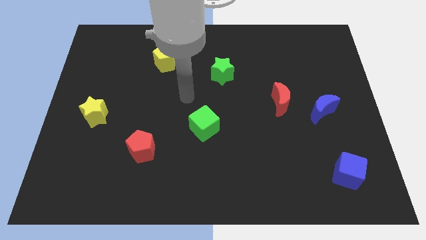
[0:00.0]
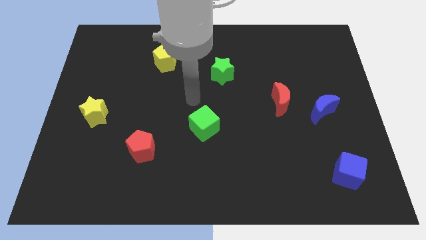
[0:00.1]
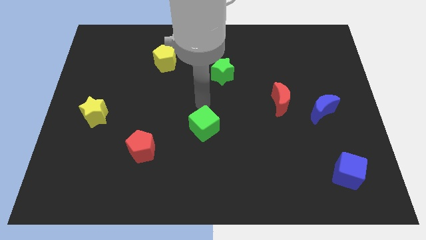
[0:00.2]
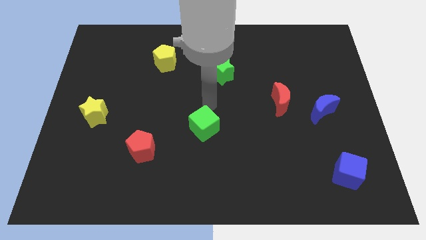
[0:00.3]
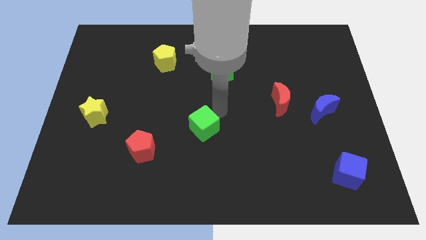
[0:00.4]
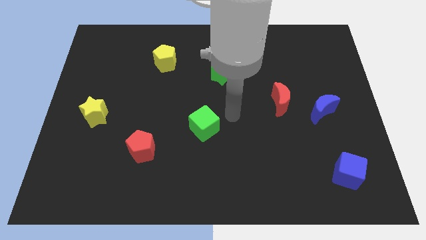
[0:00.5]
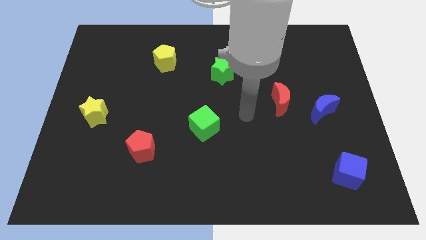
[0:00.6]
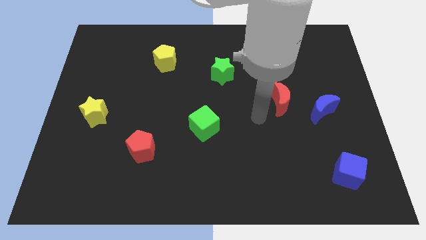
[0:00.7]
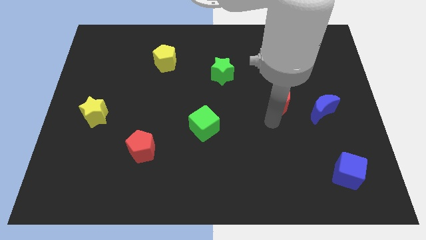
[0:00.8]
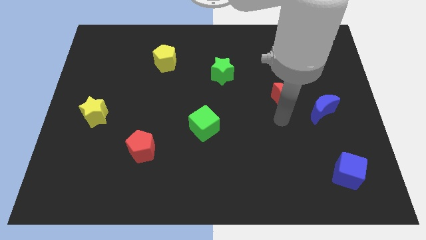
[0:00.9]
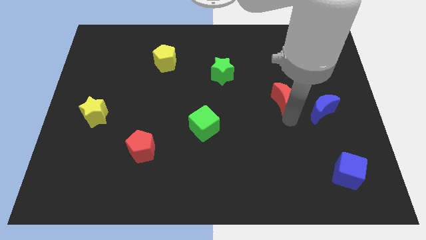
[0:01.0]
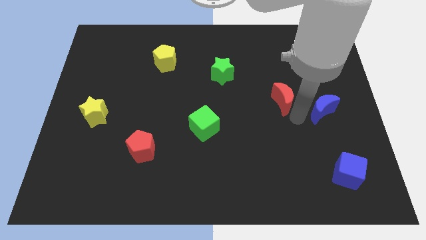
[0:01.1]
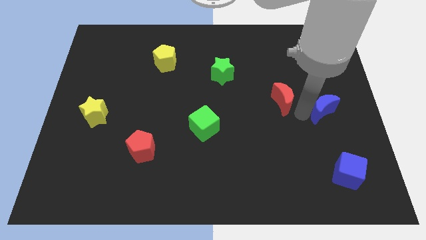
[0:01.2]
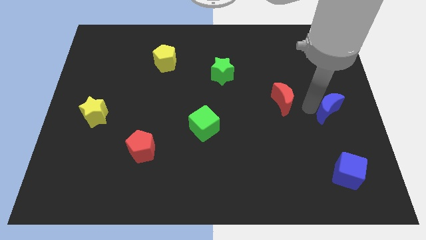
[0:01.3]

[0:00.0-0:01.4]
pull the red moon apart from the blue moon

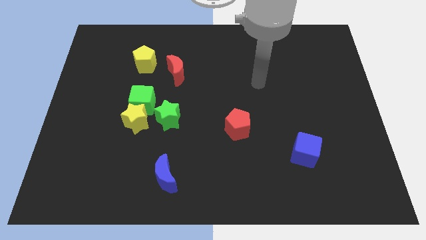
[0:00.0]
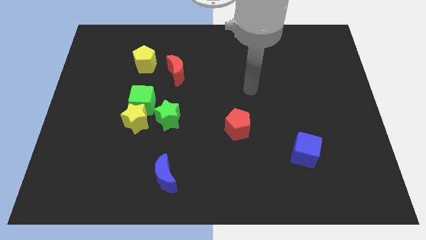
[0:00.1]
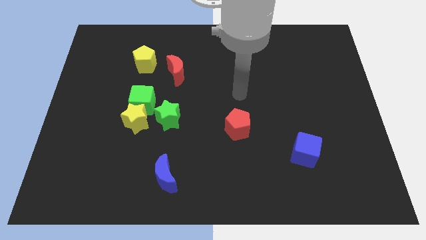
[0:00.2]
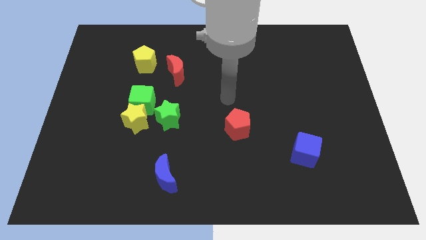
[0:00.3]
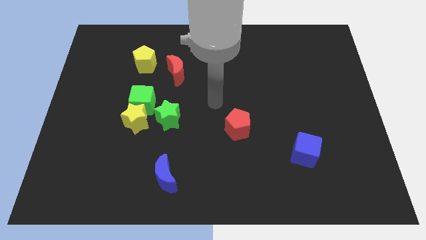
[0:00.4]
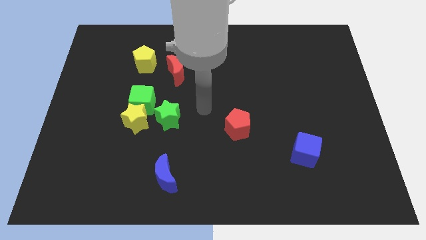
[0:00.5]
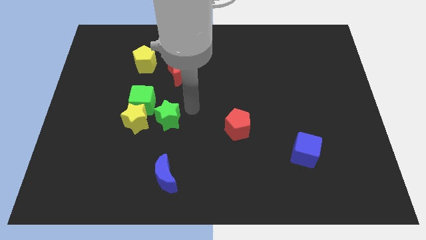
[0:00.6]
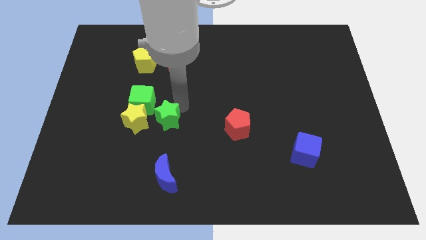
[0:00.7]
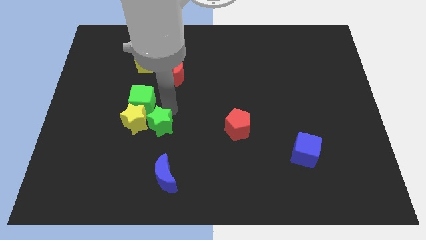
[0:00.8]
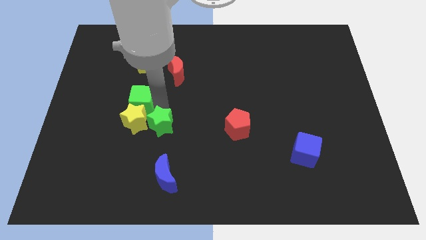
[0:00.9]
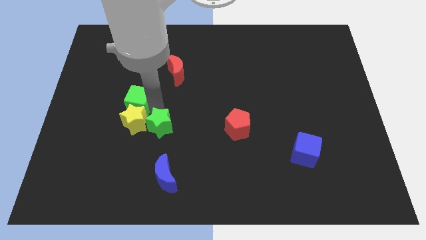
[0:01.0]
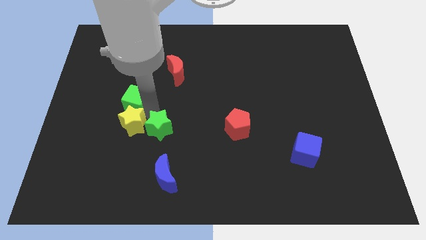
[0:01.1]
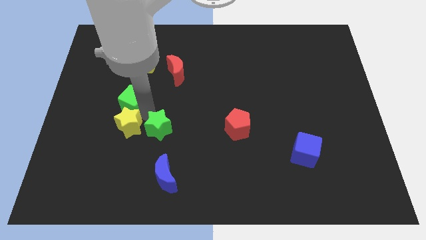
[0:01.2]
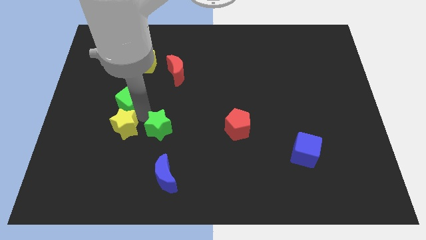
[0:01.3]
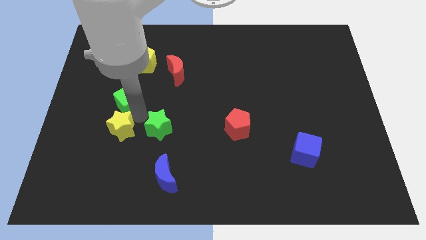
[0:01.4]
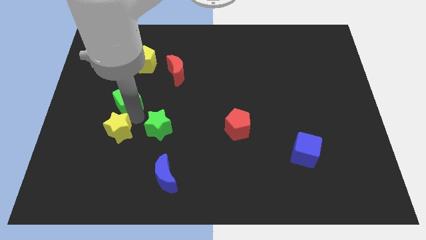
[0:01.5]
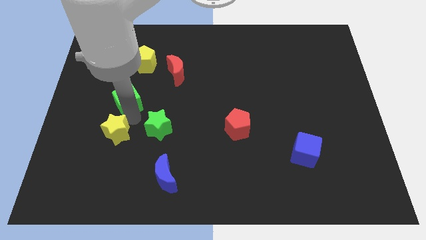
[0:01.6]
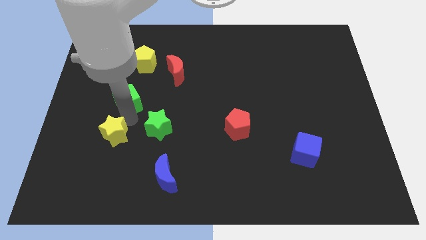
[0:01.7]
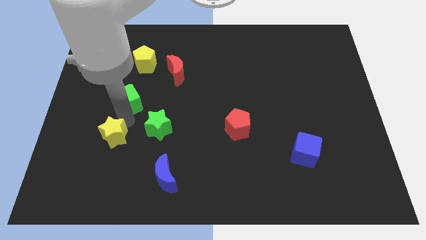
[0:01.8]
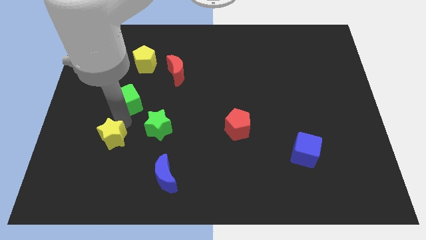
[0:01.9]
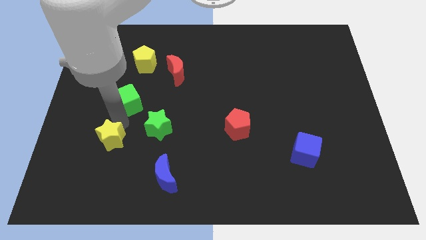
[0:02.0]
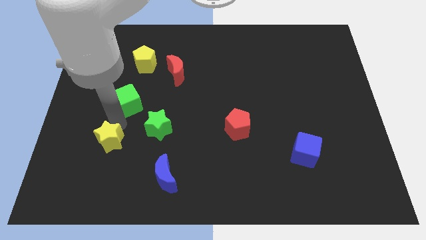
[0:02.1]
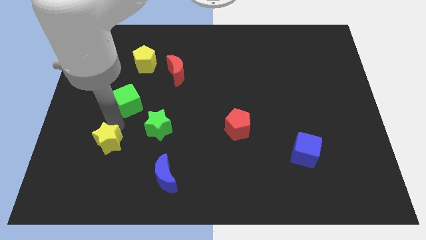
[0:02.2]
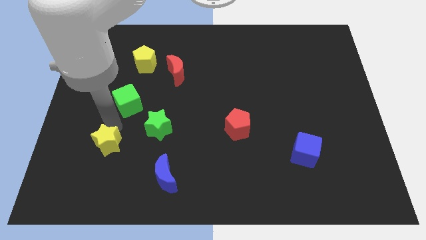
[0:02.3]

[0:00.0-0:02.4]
pull the yellow star apart from the green cube and green star

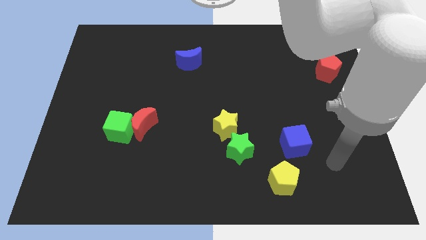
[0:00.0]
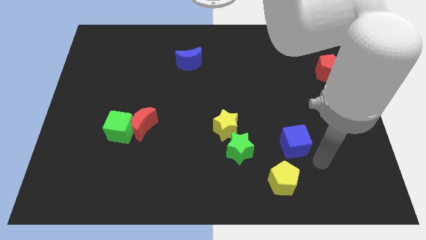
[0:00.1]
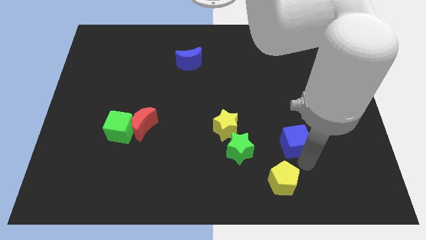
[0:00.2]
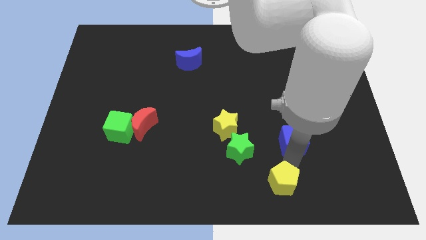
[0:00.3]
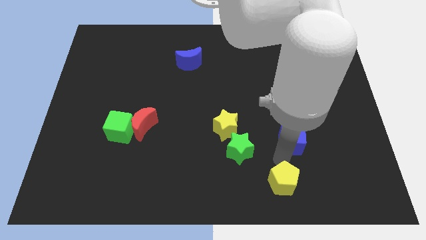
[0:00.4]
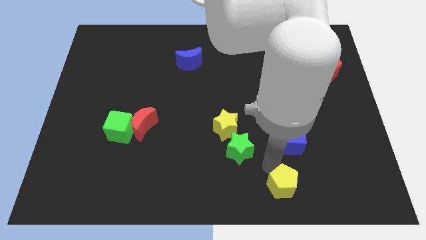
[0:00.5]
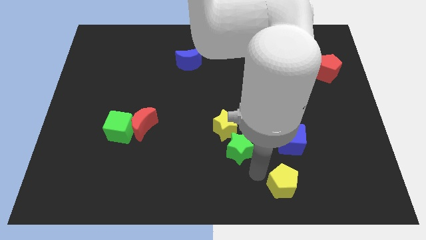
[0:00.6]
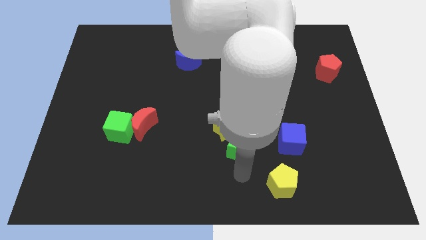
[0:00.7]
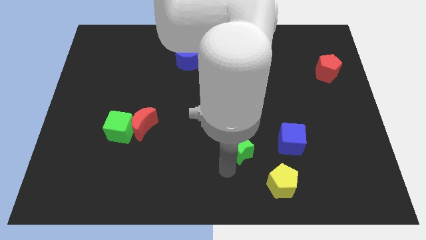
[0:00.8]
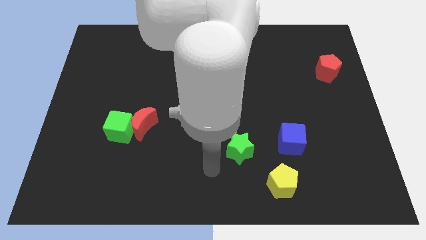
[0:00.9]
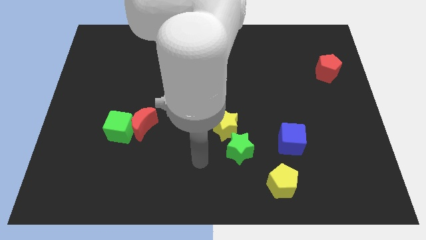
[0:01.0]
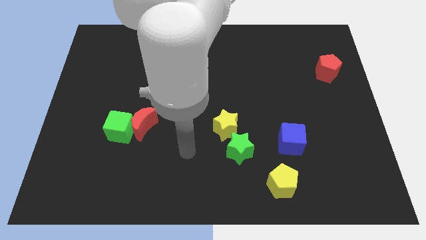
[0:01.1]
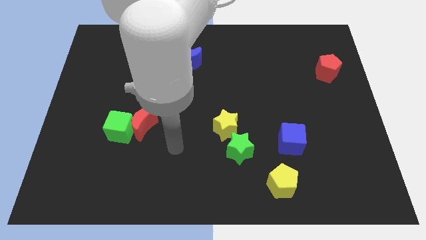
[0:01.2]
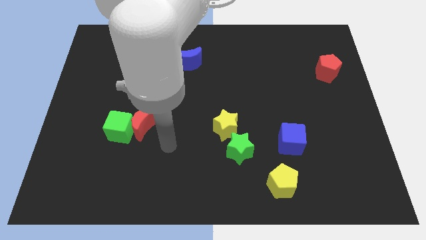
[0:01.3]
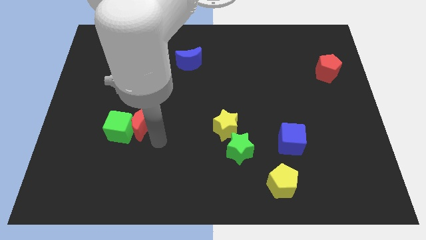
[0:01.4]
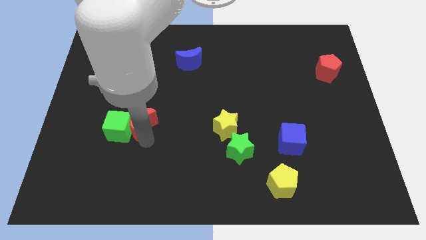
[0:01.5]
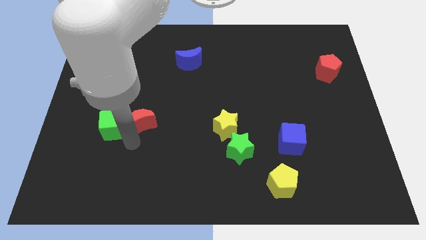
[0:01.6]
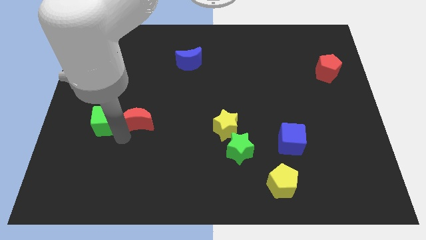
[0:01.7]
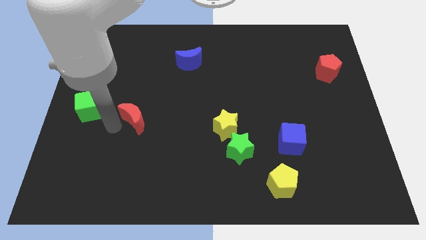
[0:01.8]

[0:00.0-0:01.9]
separate the red moon from the green cube

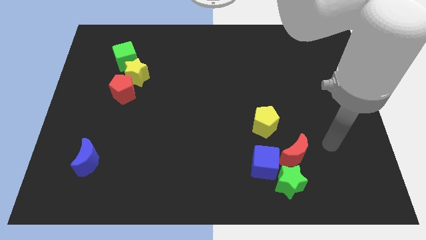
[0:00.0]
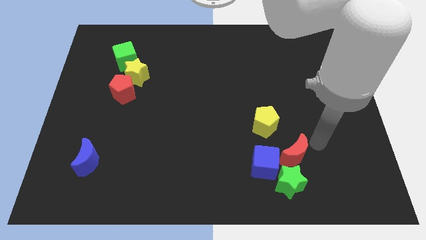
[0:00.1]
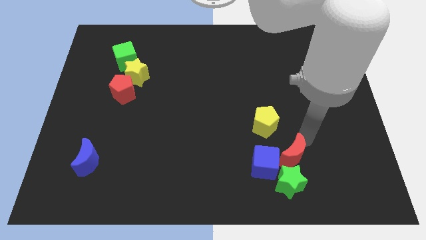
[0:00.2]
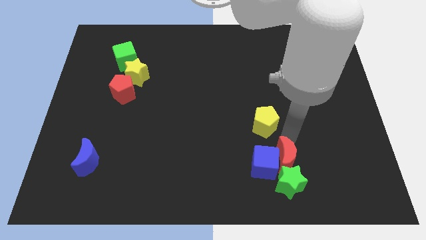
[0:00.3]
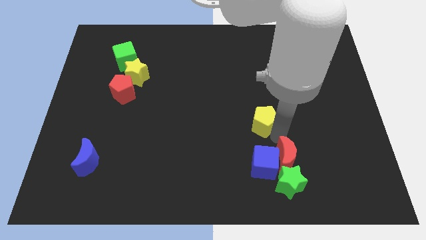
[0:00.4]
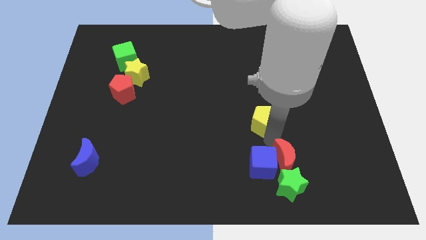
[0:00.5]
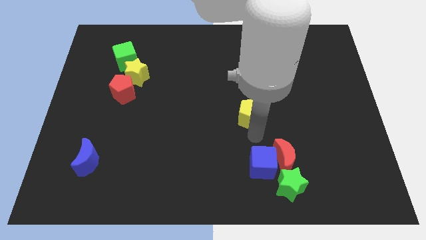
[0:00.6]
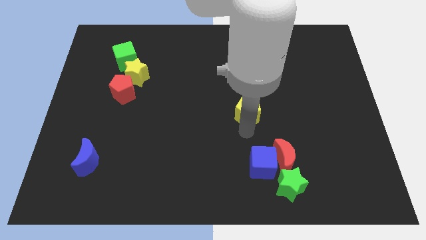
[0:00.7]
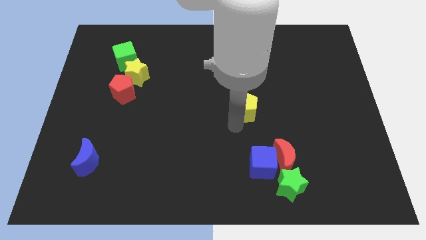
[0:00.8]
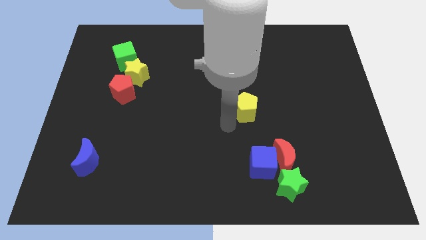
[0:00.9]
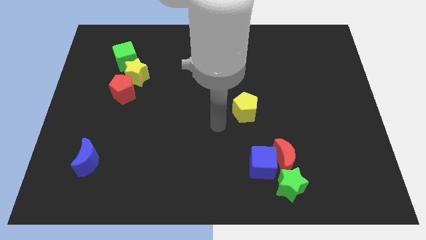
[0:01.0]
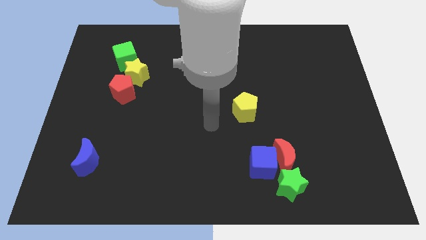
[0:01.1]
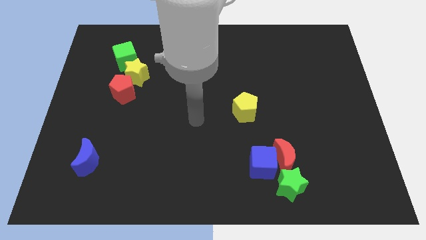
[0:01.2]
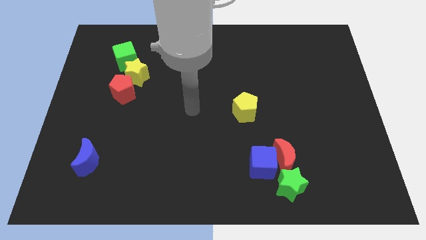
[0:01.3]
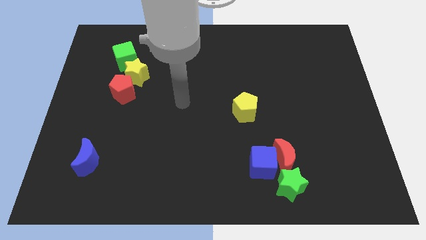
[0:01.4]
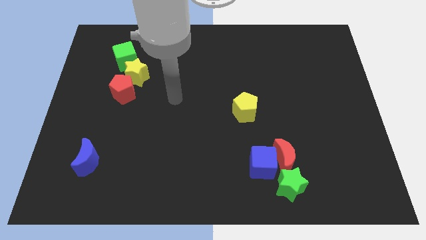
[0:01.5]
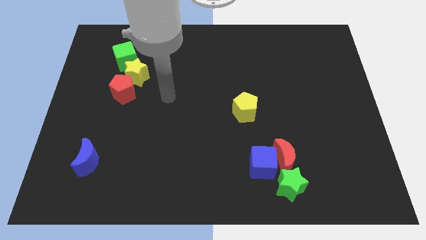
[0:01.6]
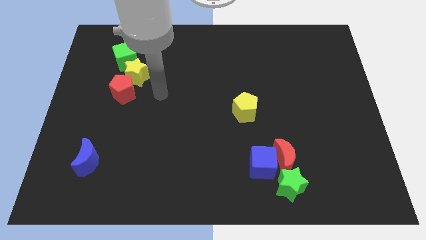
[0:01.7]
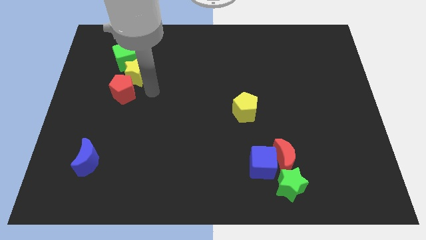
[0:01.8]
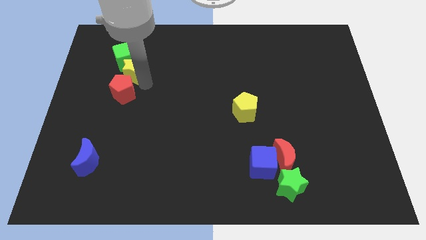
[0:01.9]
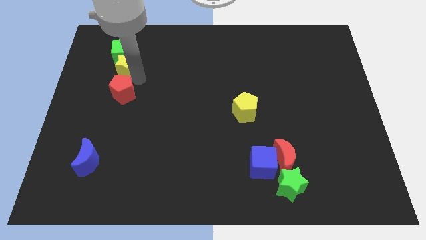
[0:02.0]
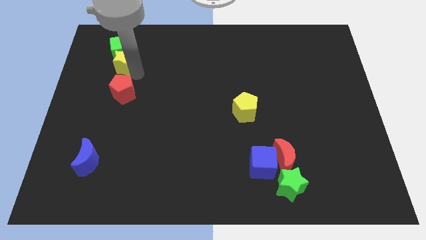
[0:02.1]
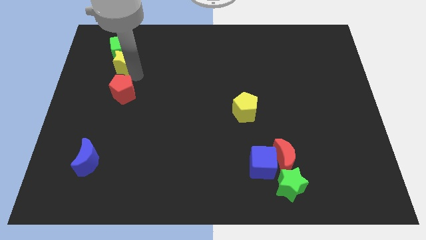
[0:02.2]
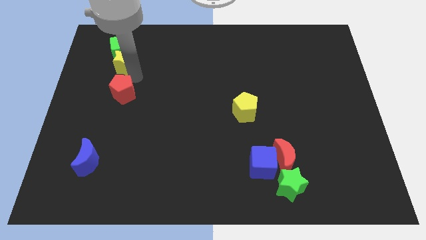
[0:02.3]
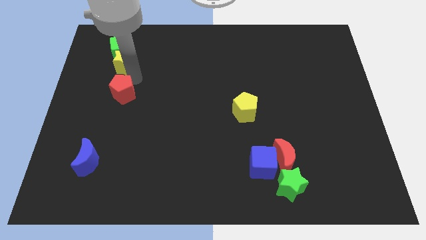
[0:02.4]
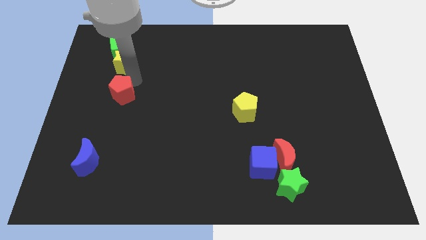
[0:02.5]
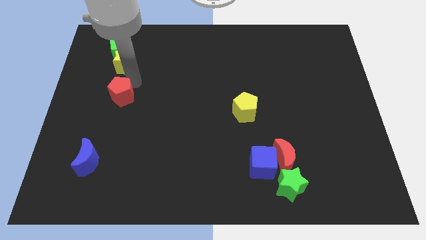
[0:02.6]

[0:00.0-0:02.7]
move the red pentagon away from the yellow star

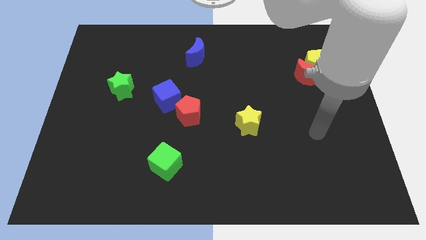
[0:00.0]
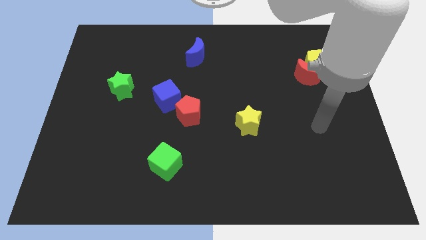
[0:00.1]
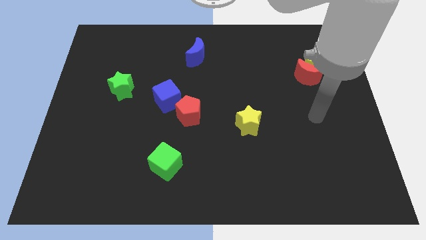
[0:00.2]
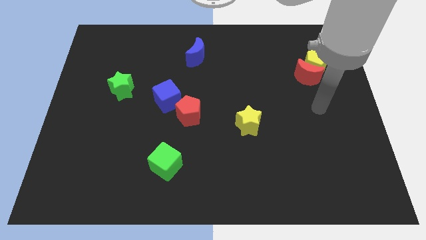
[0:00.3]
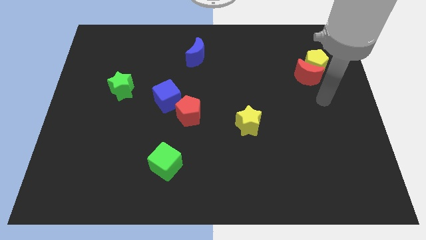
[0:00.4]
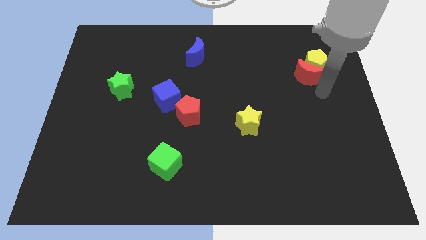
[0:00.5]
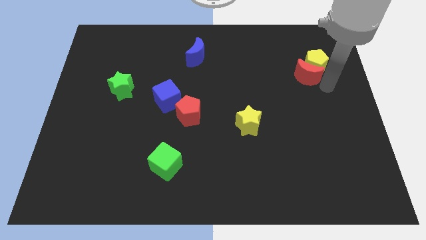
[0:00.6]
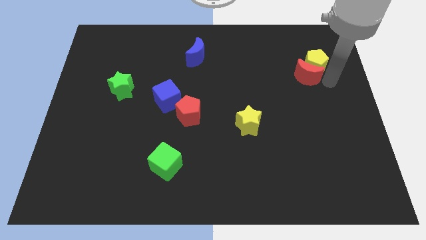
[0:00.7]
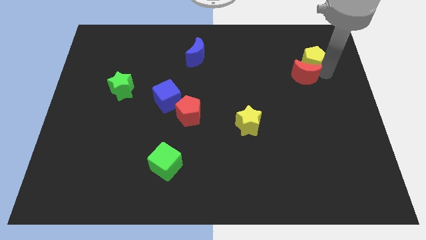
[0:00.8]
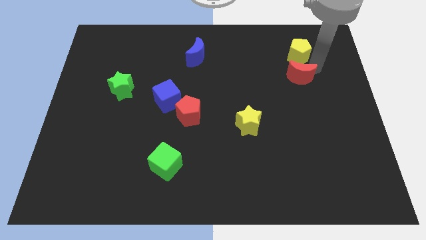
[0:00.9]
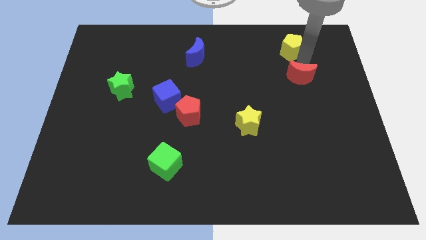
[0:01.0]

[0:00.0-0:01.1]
move the red moon away from the yellow pentagon
